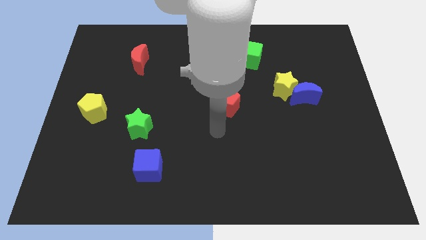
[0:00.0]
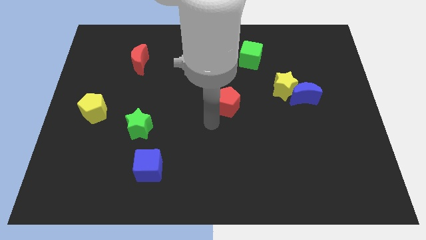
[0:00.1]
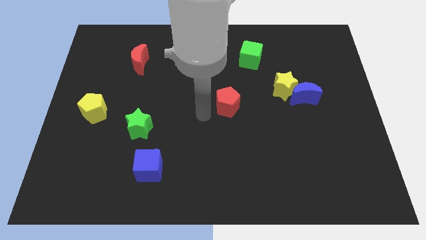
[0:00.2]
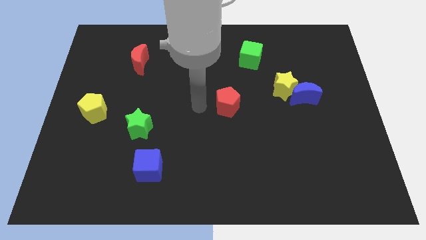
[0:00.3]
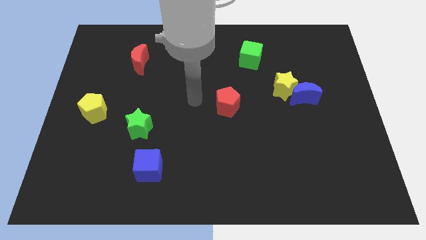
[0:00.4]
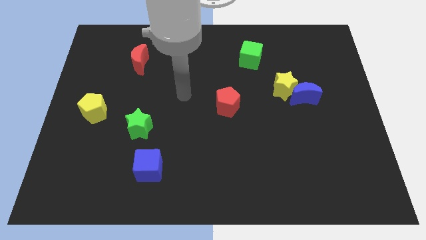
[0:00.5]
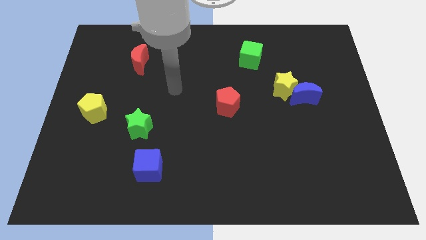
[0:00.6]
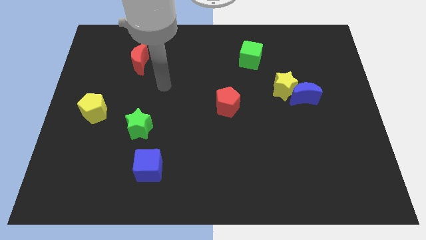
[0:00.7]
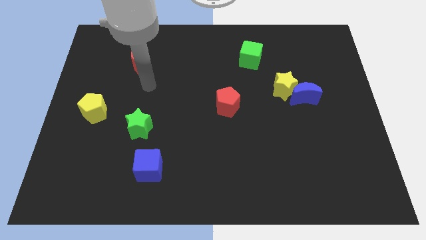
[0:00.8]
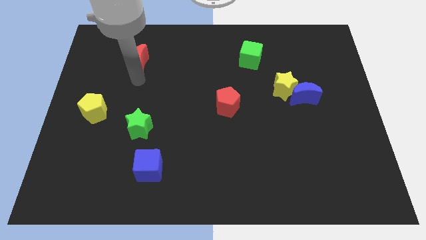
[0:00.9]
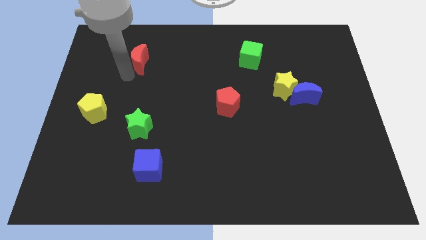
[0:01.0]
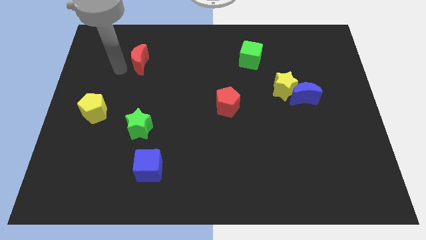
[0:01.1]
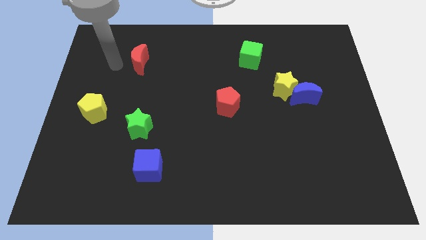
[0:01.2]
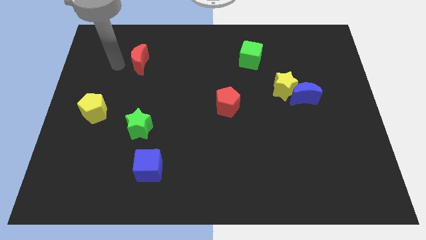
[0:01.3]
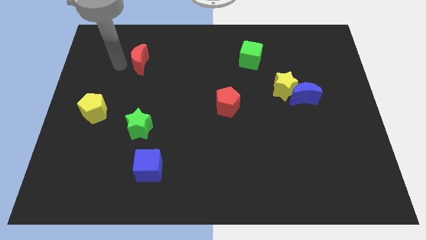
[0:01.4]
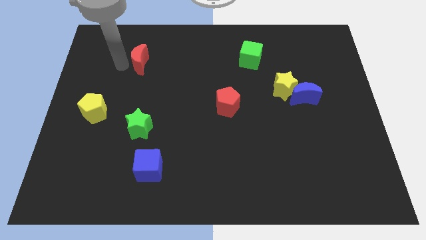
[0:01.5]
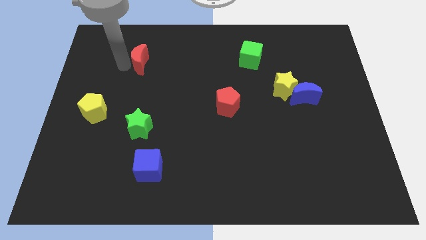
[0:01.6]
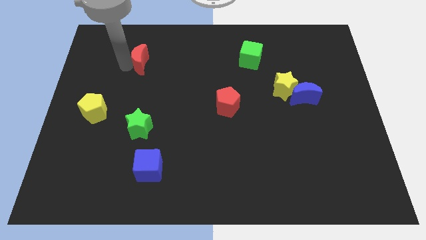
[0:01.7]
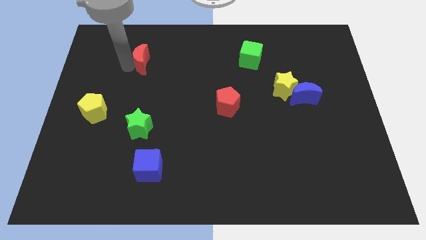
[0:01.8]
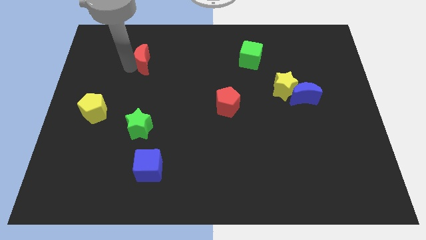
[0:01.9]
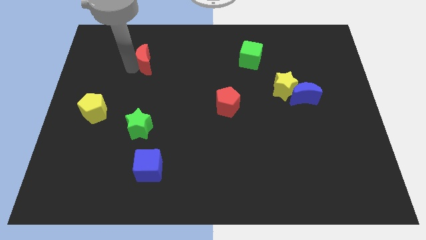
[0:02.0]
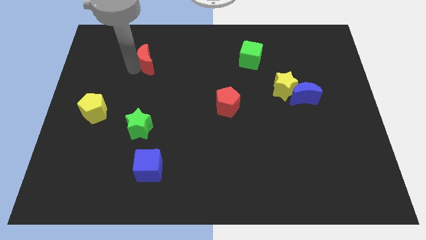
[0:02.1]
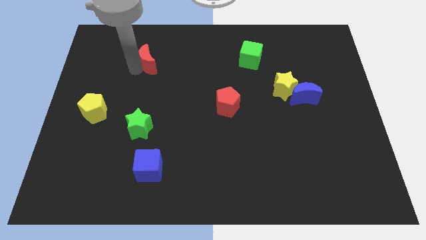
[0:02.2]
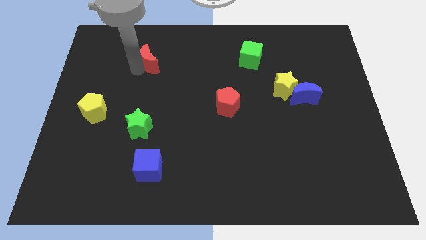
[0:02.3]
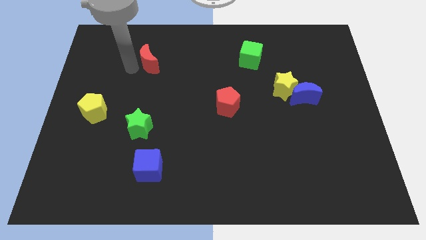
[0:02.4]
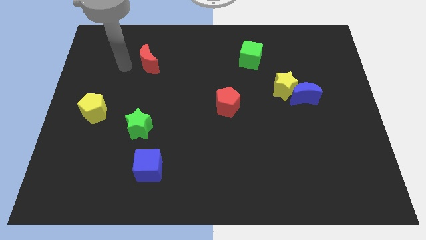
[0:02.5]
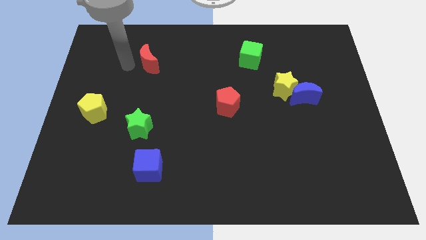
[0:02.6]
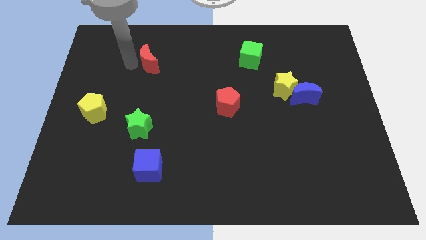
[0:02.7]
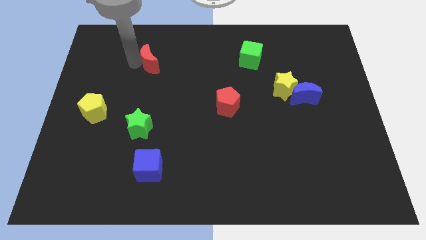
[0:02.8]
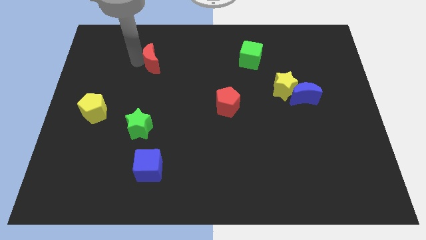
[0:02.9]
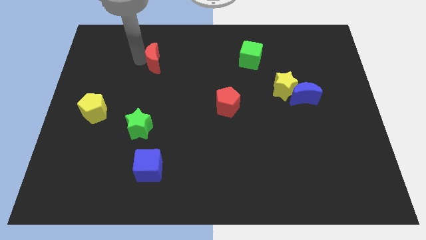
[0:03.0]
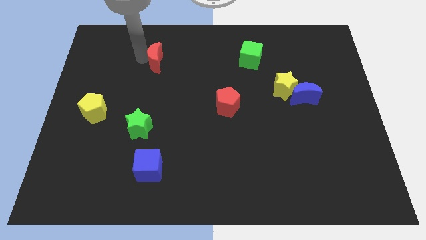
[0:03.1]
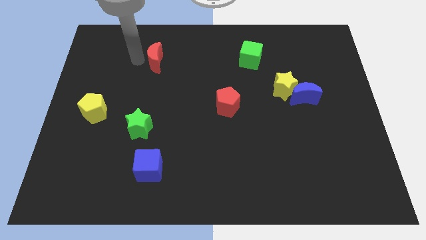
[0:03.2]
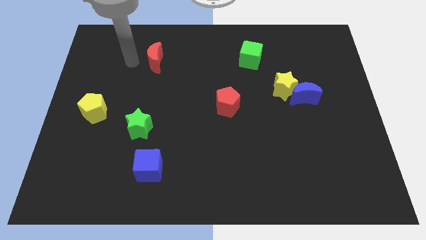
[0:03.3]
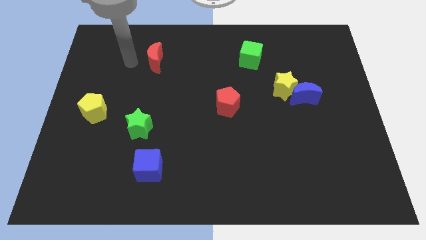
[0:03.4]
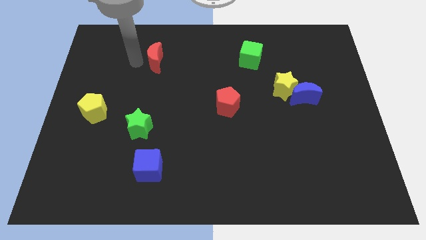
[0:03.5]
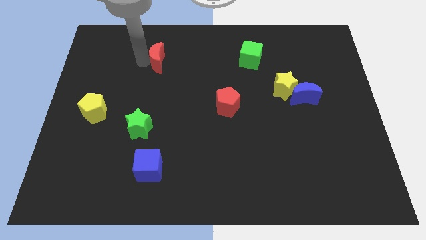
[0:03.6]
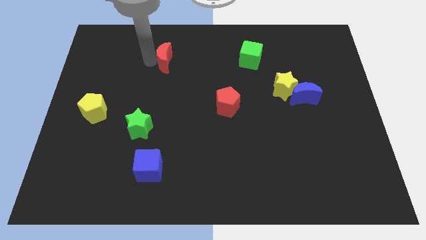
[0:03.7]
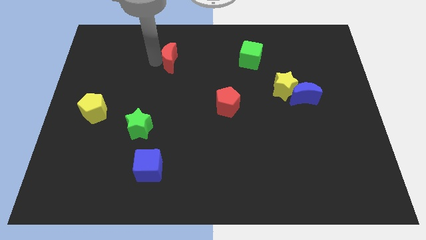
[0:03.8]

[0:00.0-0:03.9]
slightly slide the red moon to the right

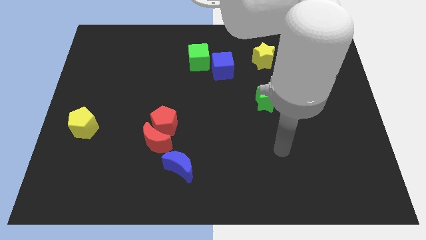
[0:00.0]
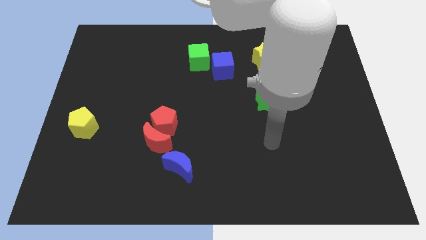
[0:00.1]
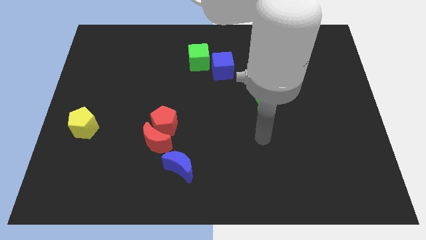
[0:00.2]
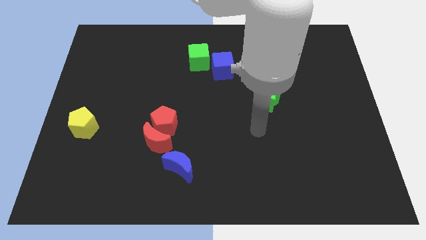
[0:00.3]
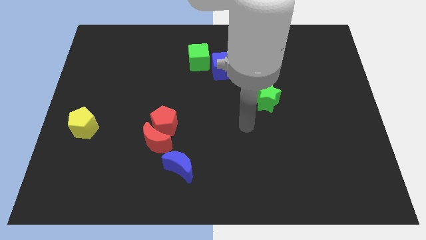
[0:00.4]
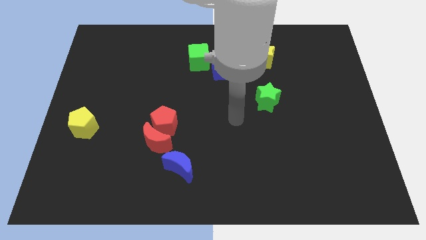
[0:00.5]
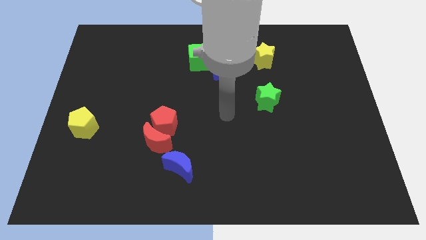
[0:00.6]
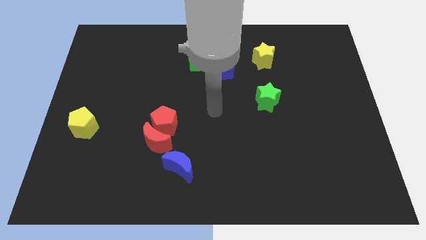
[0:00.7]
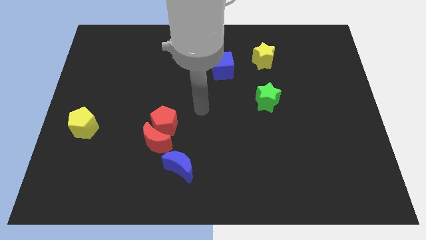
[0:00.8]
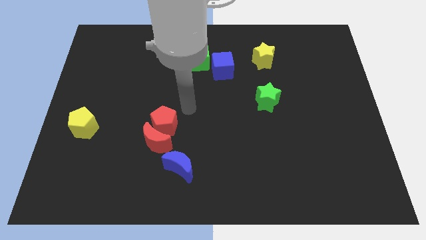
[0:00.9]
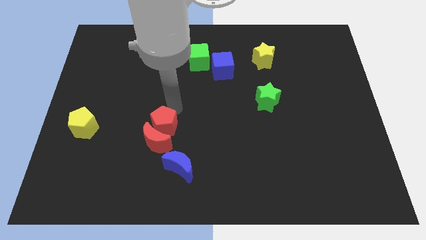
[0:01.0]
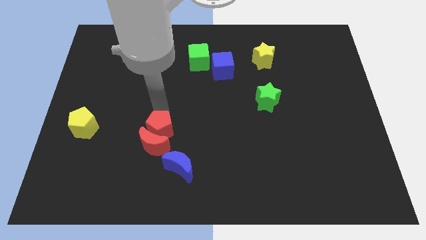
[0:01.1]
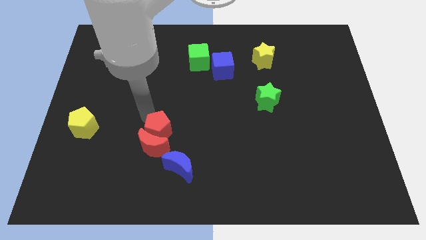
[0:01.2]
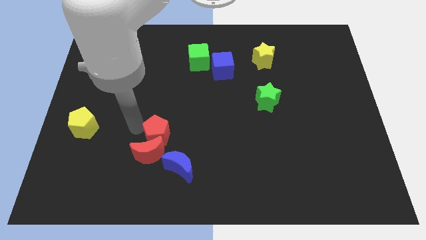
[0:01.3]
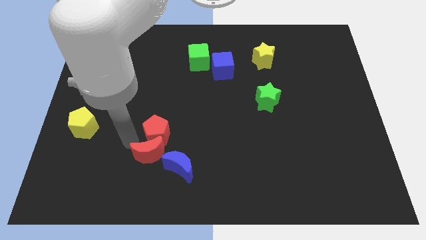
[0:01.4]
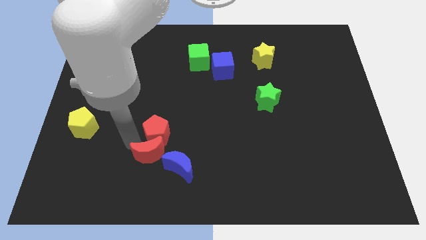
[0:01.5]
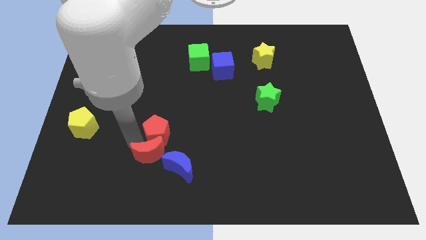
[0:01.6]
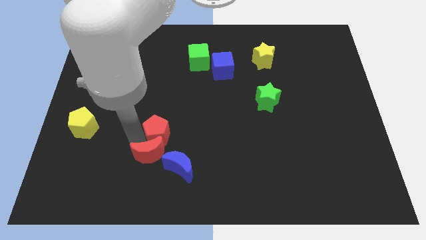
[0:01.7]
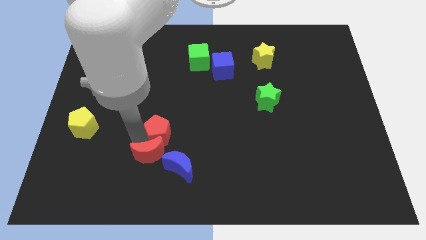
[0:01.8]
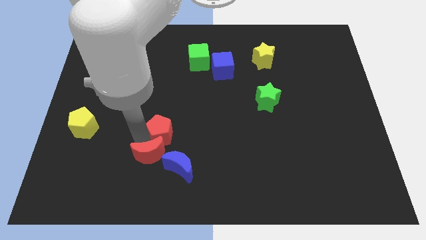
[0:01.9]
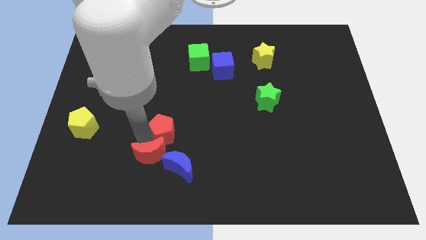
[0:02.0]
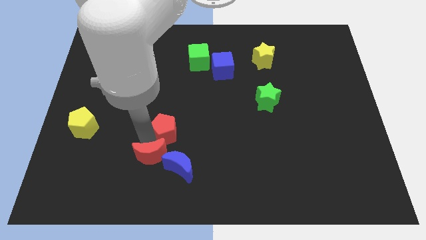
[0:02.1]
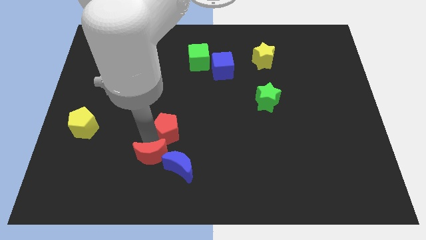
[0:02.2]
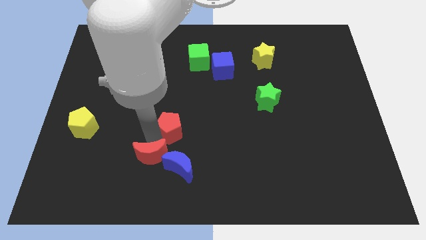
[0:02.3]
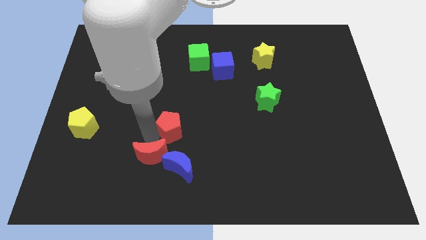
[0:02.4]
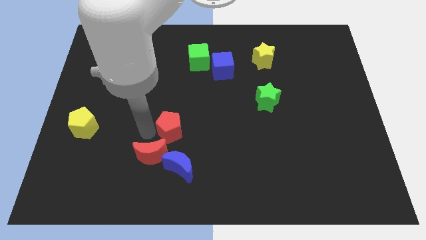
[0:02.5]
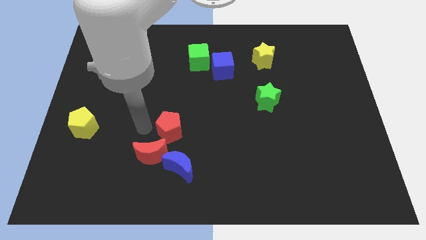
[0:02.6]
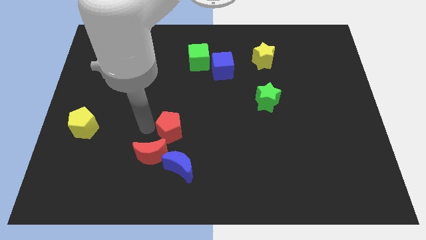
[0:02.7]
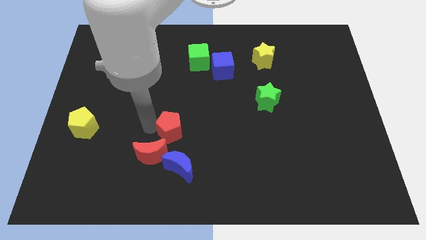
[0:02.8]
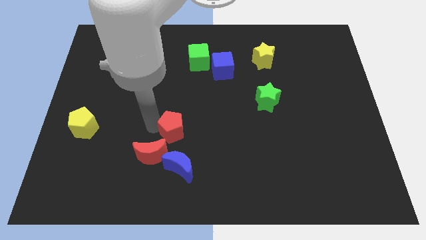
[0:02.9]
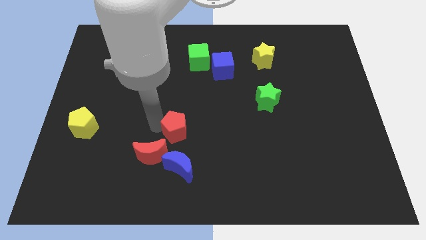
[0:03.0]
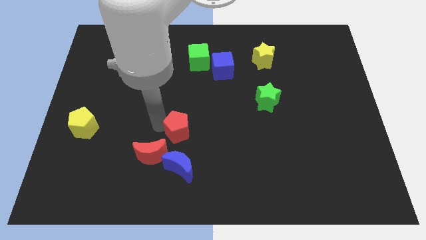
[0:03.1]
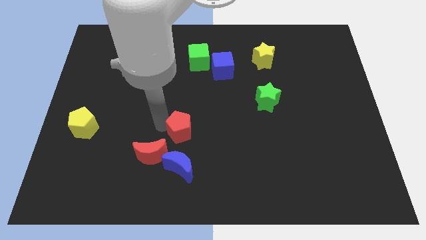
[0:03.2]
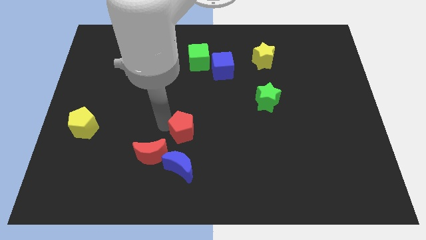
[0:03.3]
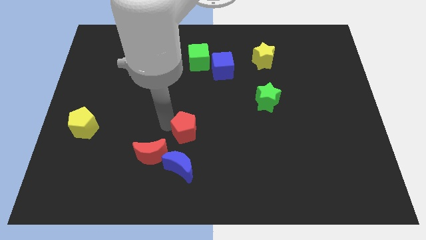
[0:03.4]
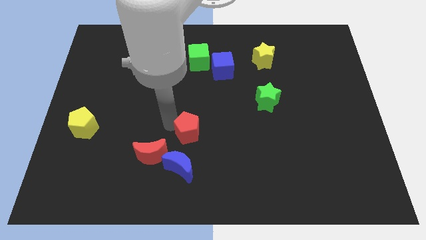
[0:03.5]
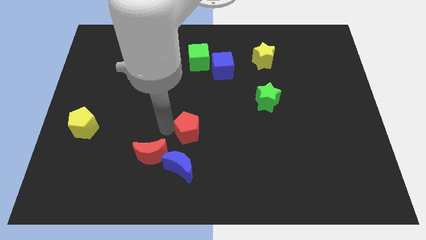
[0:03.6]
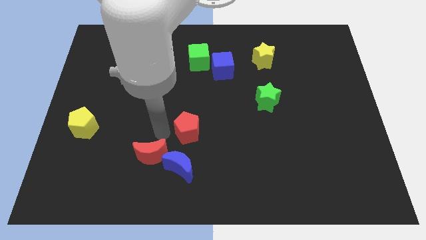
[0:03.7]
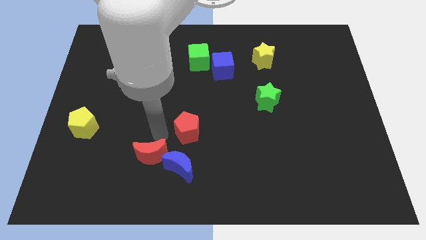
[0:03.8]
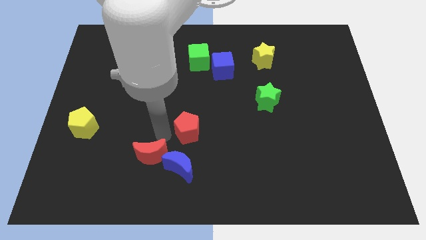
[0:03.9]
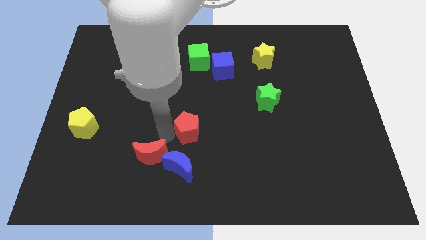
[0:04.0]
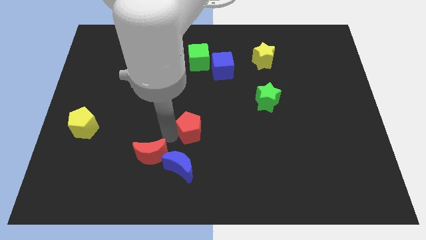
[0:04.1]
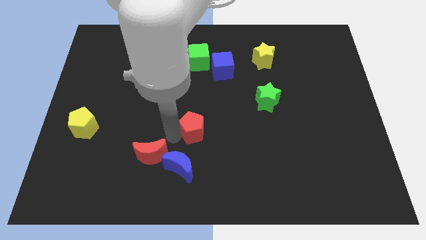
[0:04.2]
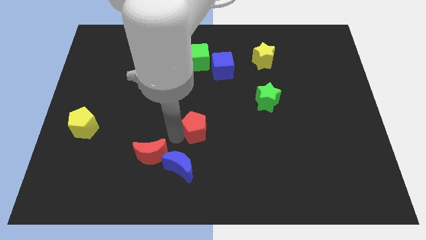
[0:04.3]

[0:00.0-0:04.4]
move the red pentagon a bit right
